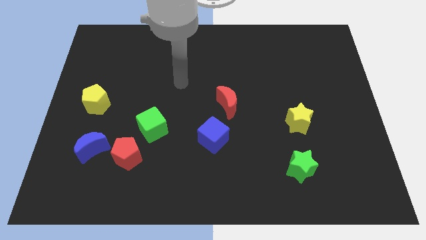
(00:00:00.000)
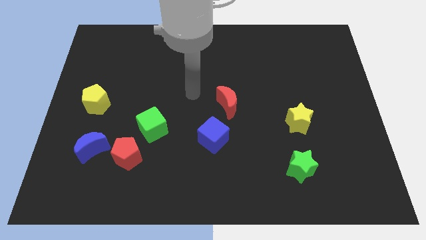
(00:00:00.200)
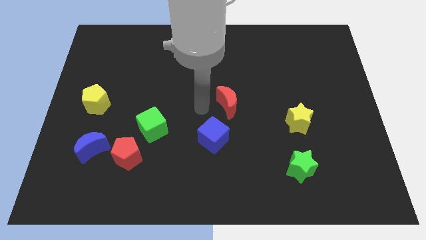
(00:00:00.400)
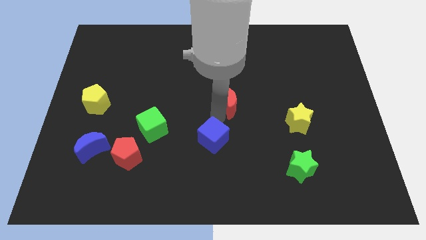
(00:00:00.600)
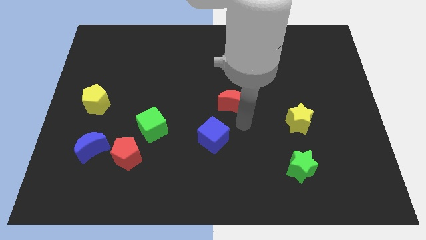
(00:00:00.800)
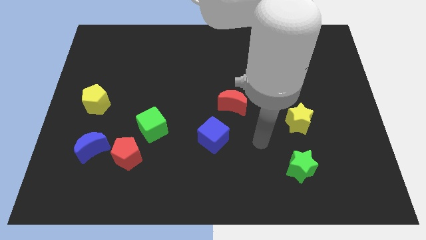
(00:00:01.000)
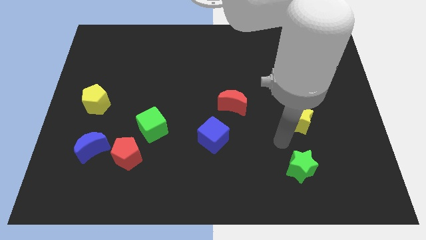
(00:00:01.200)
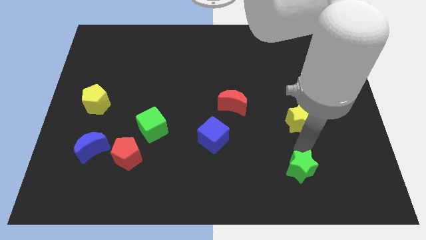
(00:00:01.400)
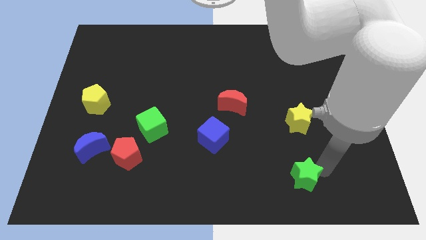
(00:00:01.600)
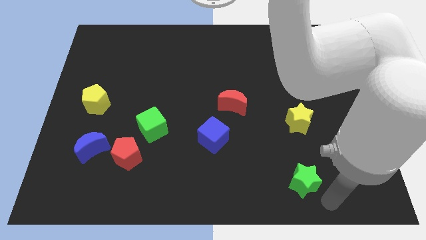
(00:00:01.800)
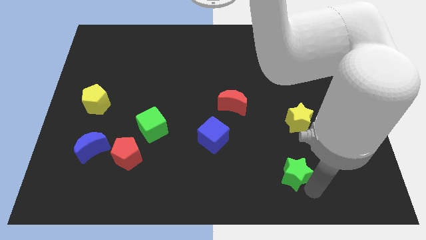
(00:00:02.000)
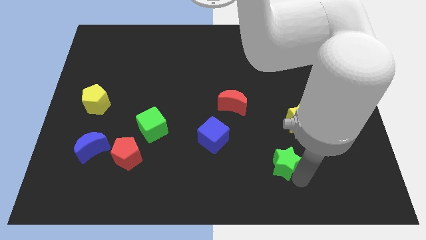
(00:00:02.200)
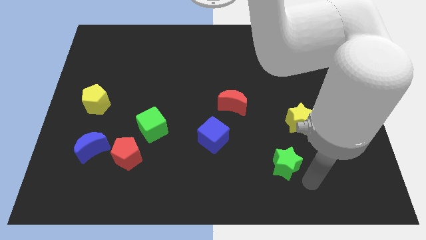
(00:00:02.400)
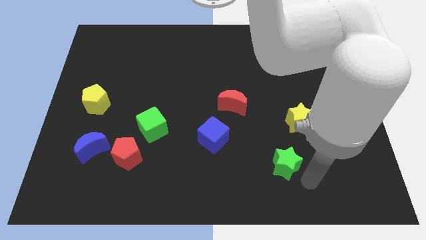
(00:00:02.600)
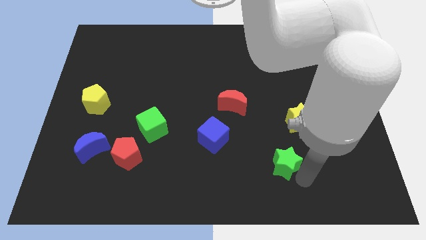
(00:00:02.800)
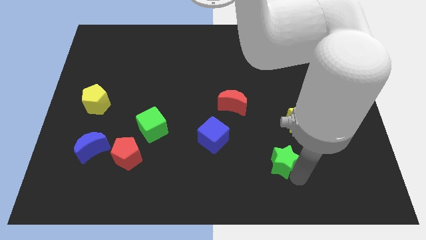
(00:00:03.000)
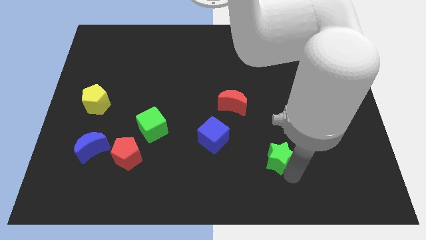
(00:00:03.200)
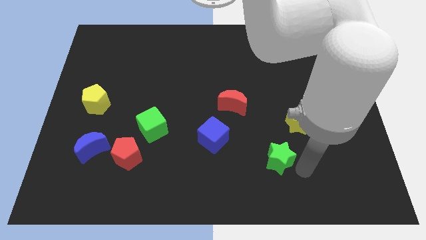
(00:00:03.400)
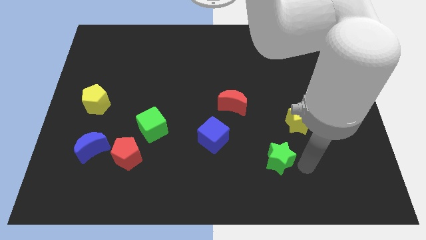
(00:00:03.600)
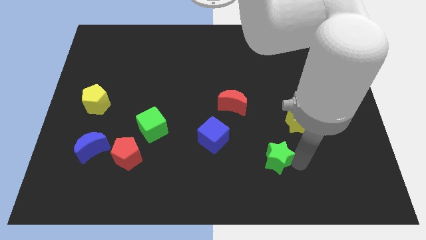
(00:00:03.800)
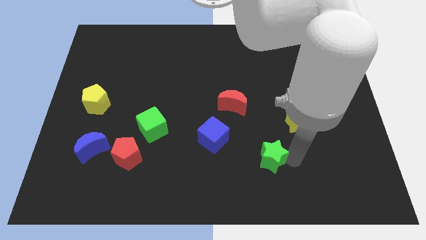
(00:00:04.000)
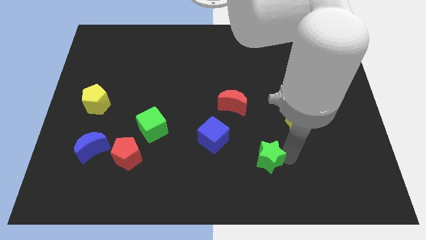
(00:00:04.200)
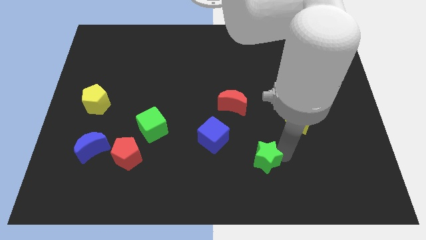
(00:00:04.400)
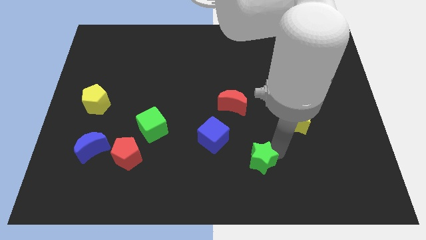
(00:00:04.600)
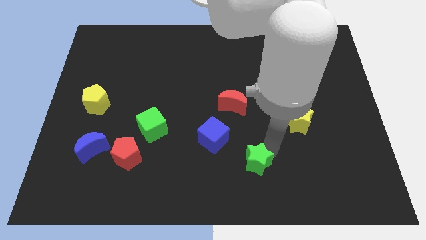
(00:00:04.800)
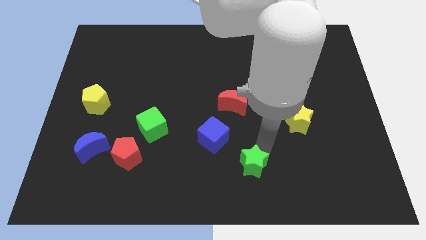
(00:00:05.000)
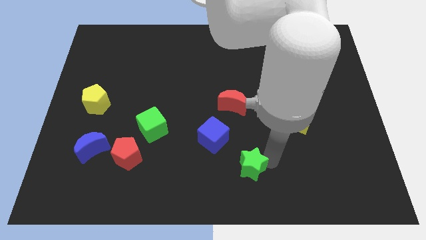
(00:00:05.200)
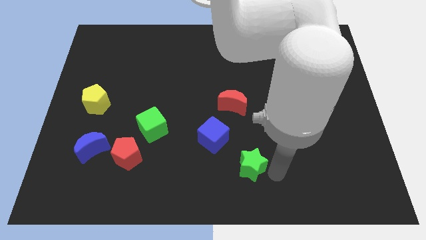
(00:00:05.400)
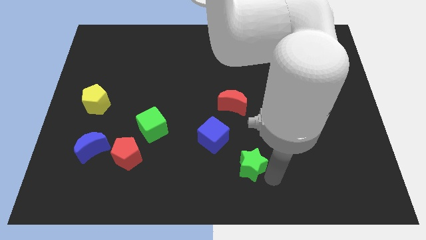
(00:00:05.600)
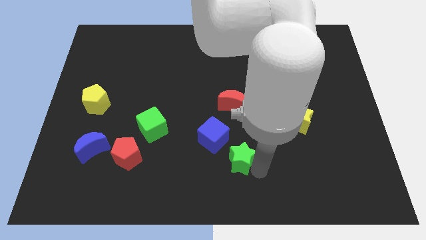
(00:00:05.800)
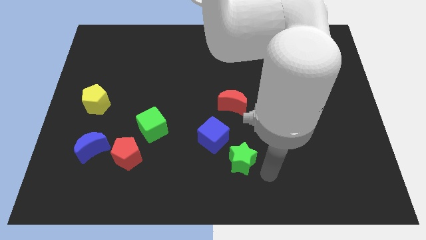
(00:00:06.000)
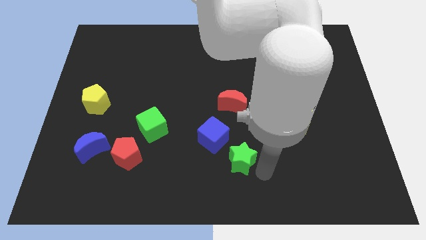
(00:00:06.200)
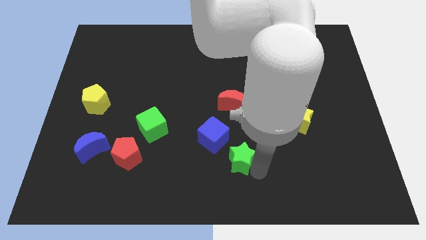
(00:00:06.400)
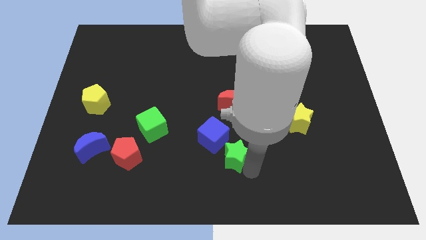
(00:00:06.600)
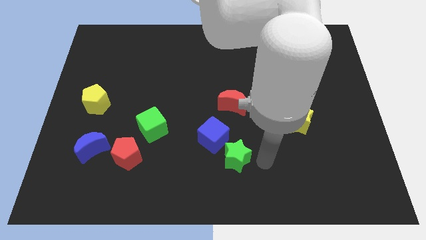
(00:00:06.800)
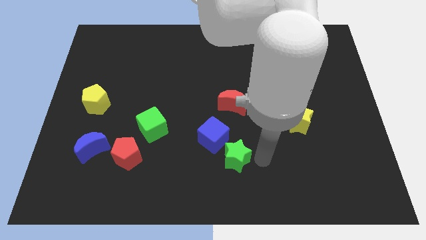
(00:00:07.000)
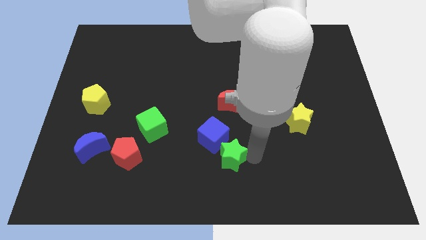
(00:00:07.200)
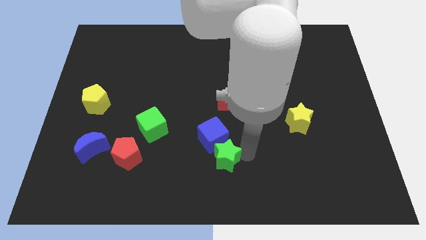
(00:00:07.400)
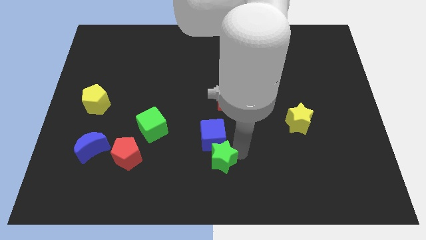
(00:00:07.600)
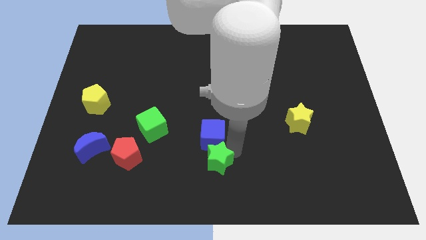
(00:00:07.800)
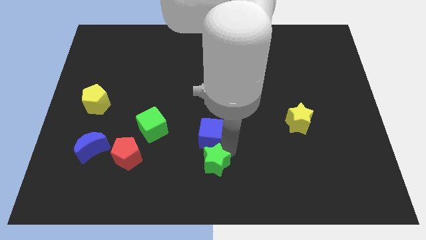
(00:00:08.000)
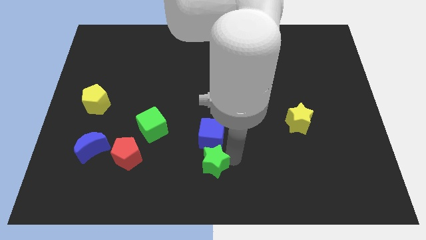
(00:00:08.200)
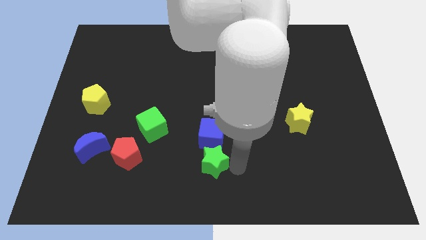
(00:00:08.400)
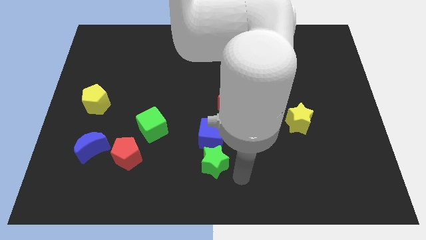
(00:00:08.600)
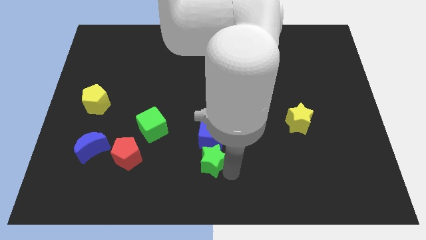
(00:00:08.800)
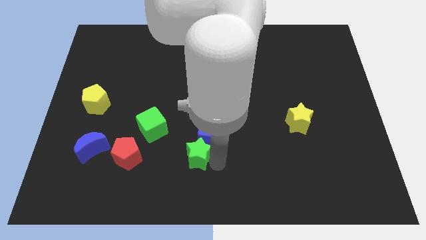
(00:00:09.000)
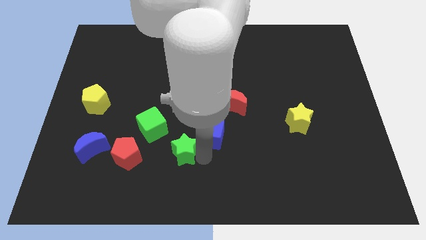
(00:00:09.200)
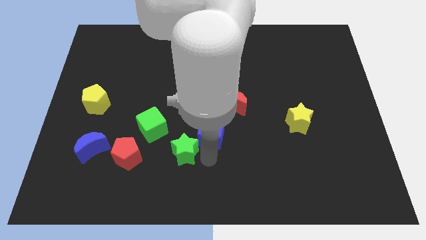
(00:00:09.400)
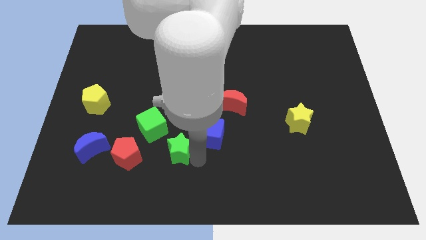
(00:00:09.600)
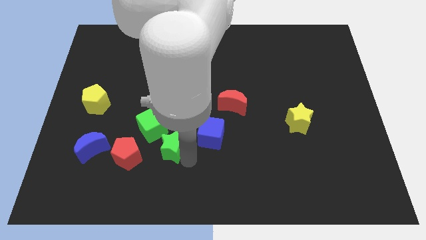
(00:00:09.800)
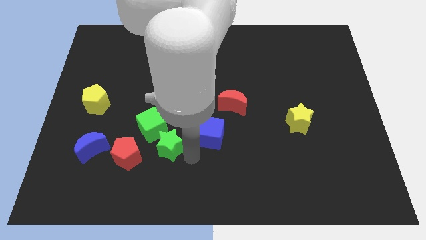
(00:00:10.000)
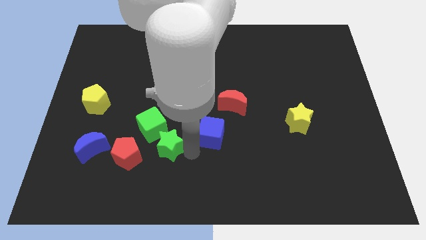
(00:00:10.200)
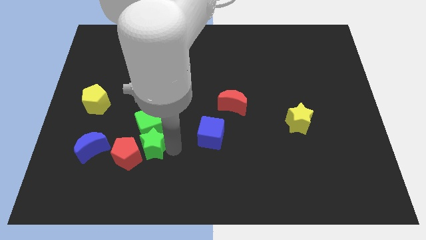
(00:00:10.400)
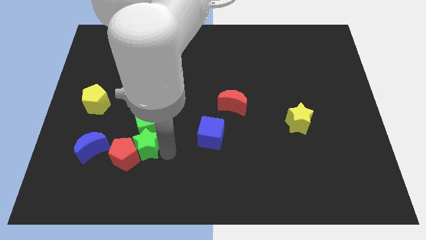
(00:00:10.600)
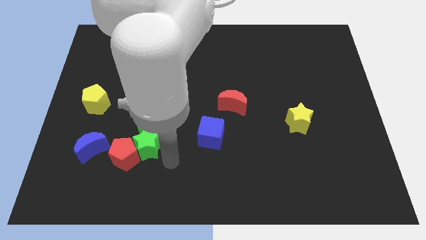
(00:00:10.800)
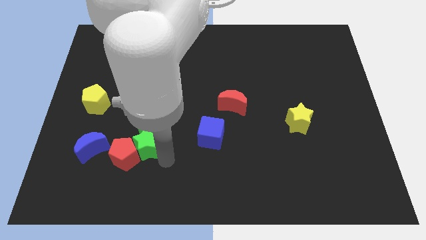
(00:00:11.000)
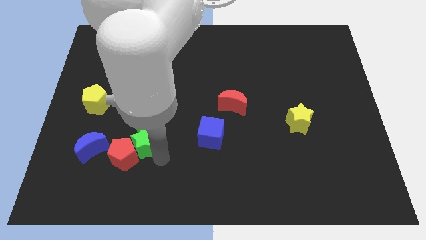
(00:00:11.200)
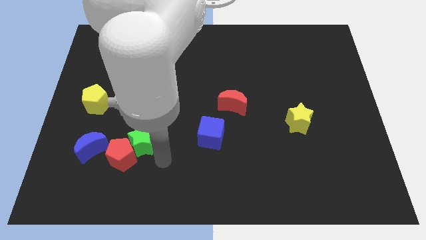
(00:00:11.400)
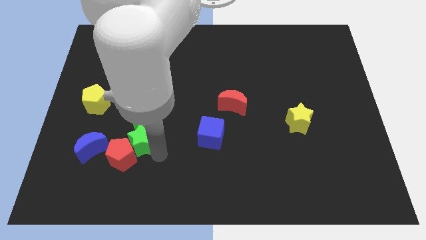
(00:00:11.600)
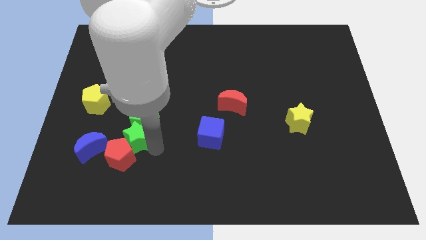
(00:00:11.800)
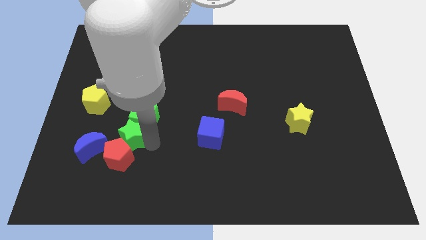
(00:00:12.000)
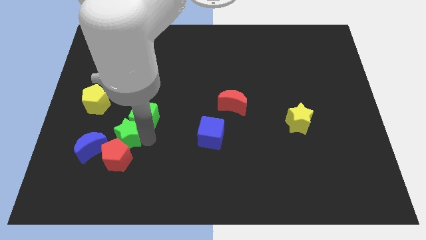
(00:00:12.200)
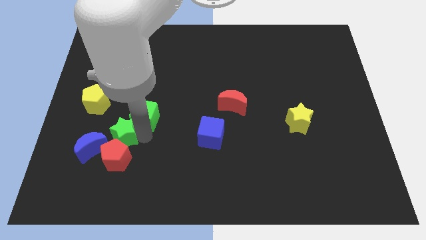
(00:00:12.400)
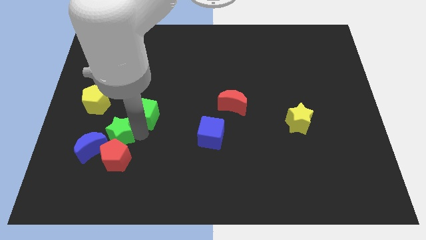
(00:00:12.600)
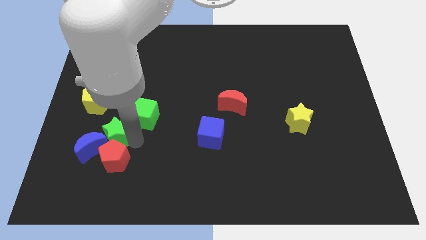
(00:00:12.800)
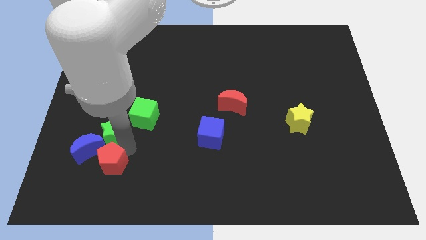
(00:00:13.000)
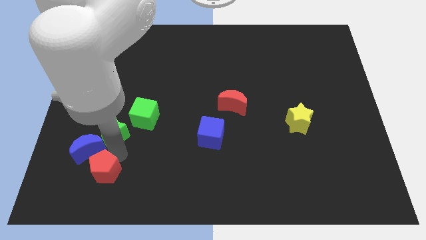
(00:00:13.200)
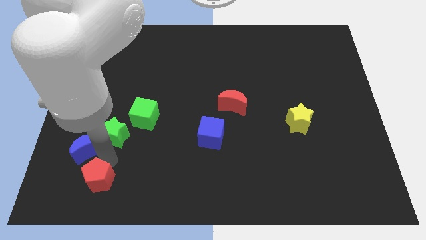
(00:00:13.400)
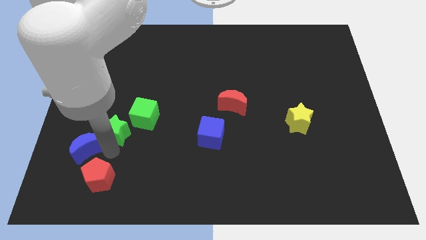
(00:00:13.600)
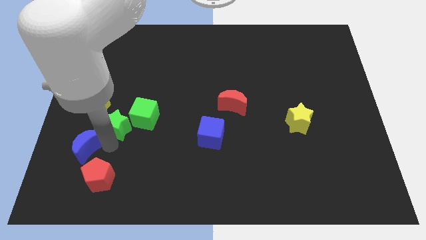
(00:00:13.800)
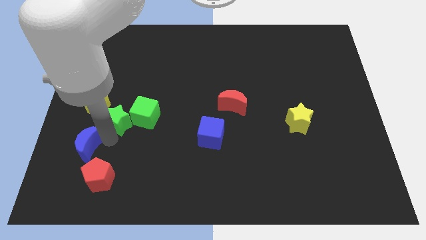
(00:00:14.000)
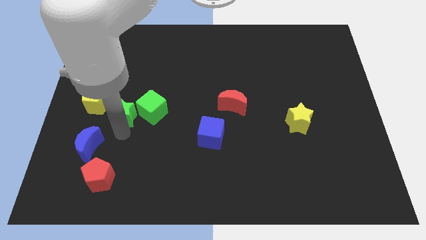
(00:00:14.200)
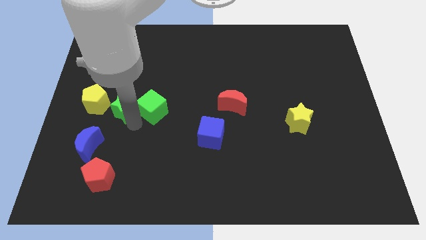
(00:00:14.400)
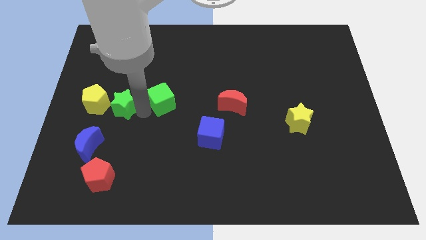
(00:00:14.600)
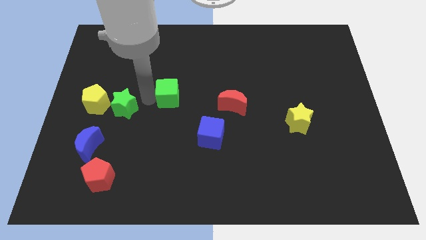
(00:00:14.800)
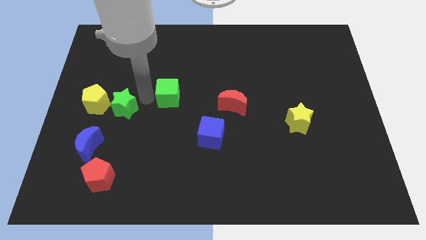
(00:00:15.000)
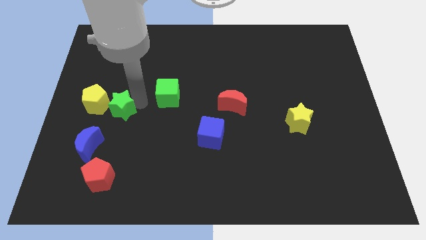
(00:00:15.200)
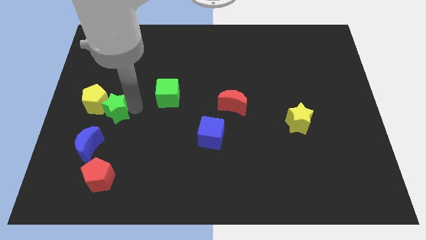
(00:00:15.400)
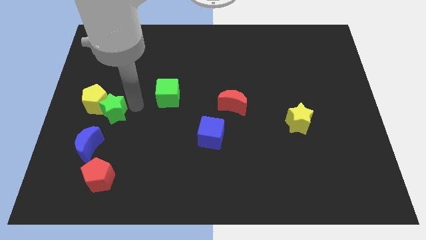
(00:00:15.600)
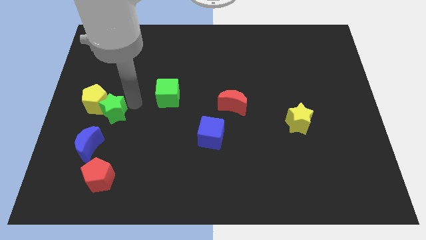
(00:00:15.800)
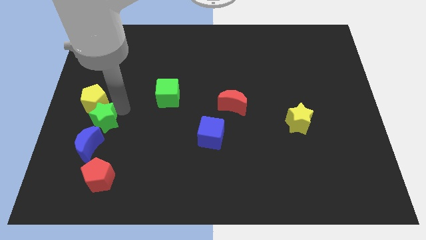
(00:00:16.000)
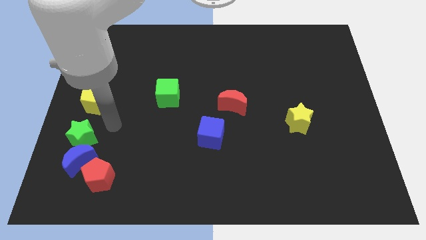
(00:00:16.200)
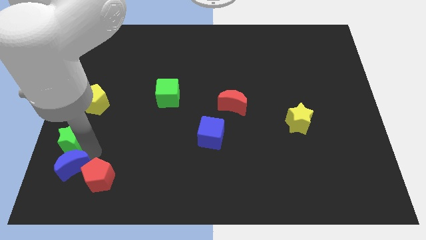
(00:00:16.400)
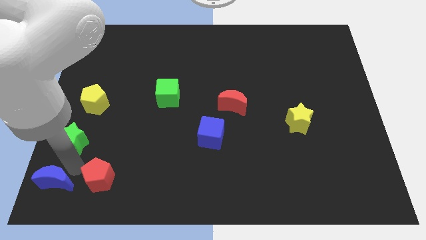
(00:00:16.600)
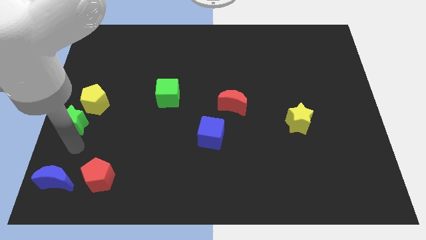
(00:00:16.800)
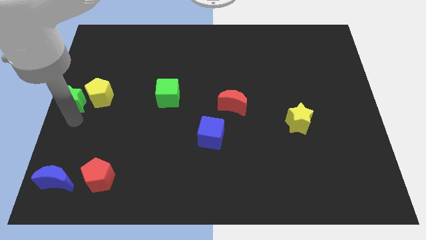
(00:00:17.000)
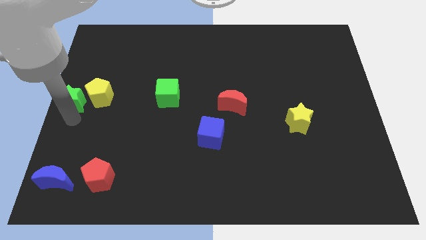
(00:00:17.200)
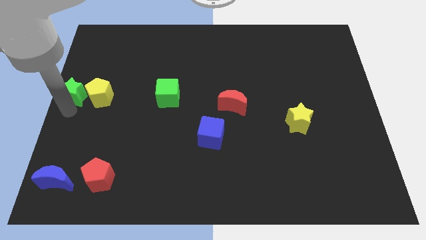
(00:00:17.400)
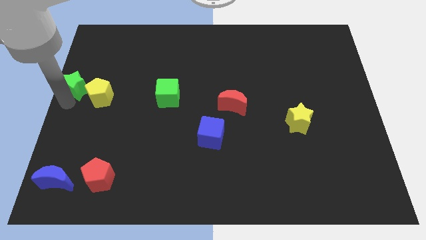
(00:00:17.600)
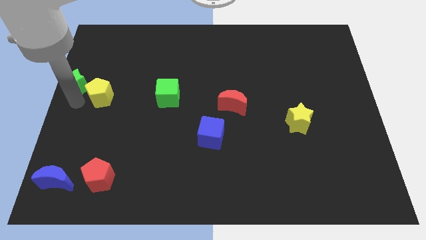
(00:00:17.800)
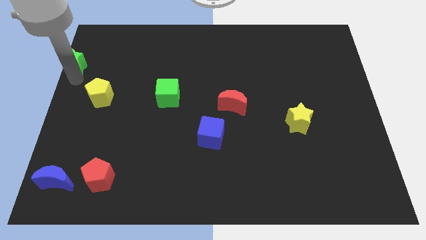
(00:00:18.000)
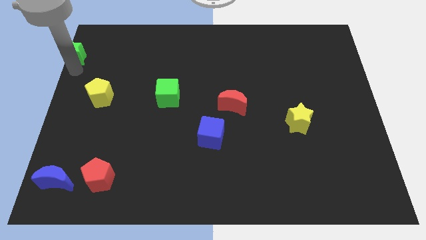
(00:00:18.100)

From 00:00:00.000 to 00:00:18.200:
push the green star to the top left
